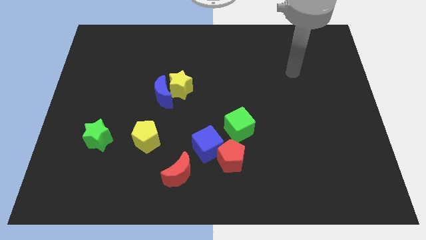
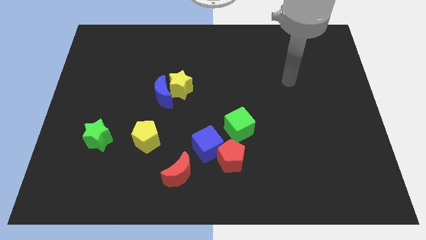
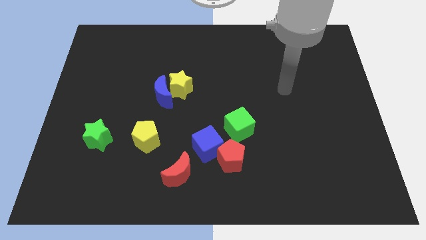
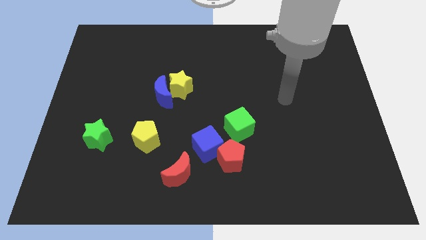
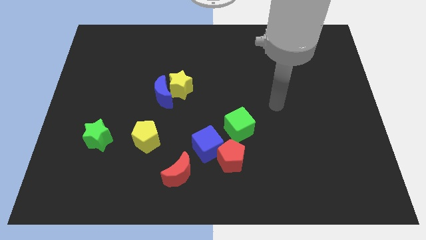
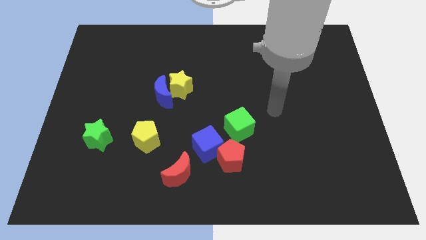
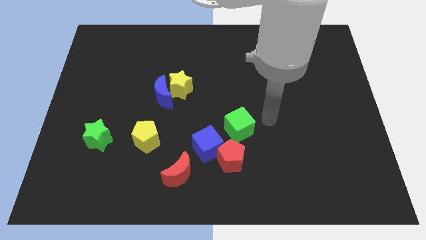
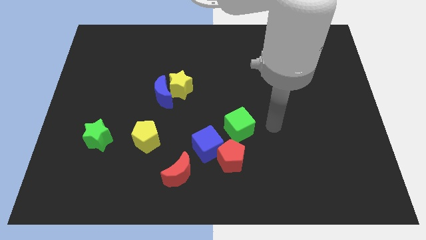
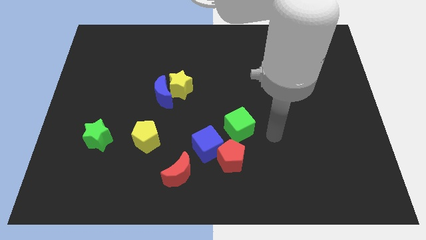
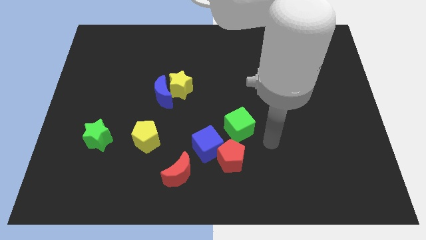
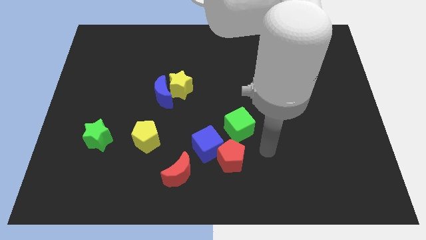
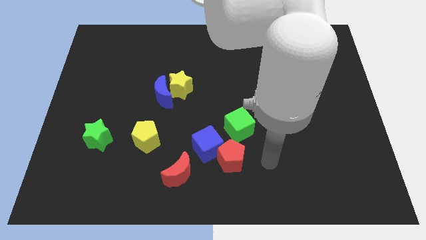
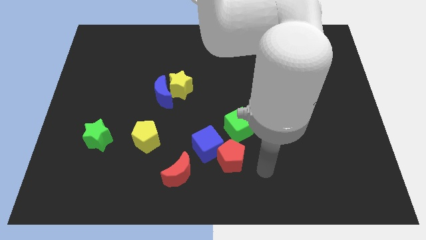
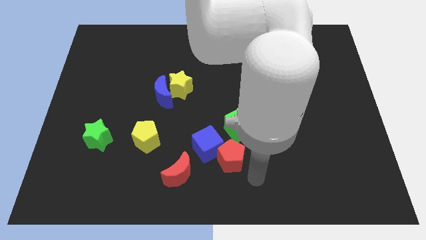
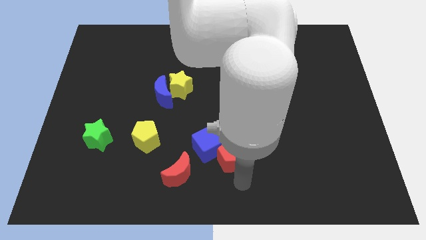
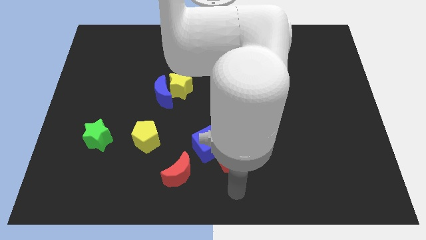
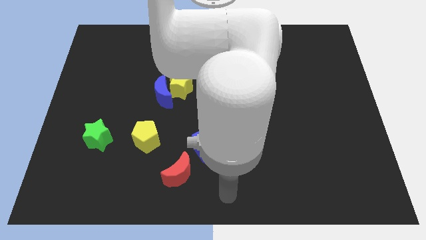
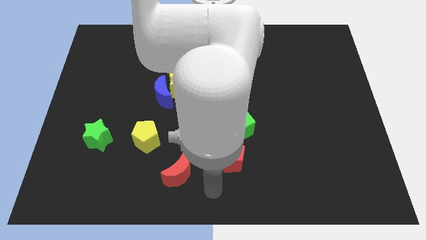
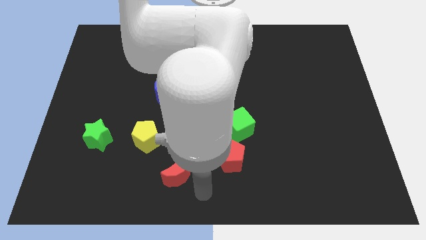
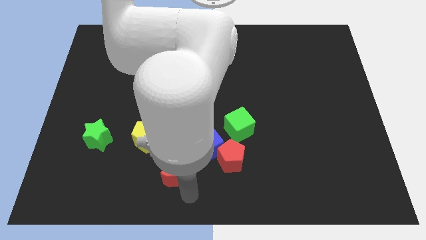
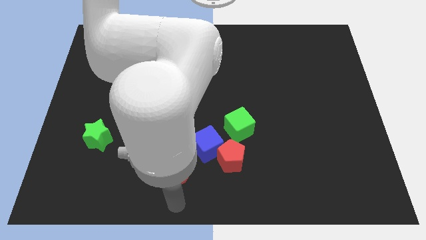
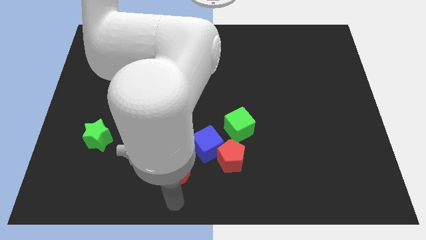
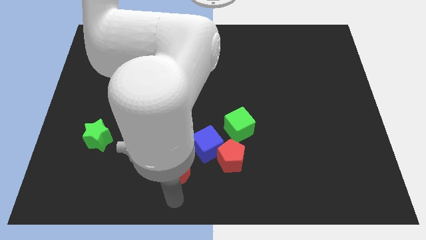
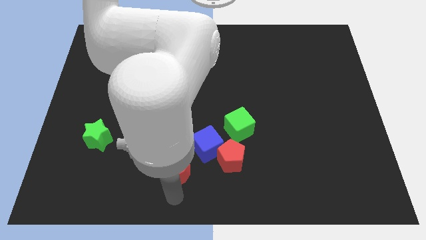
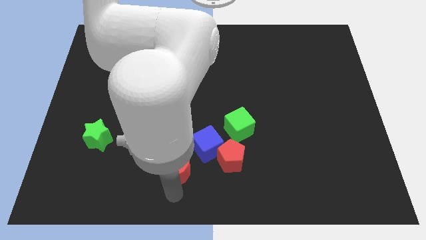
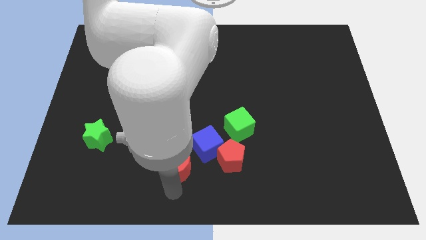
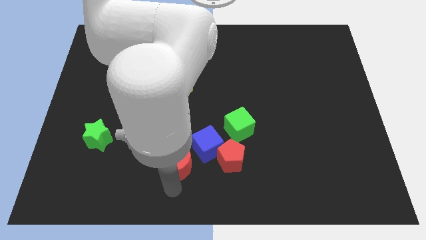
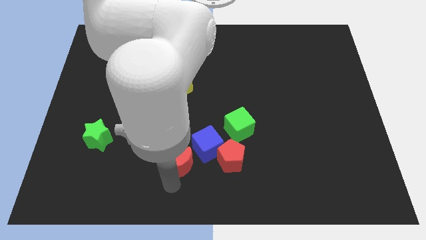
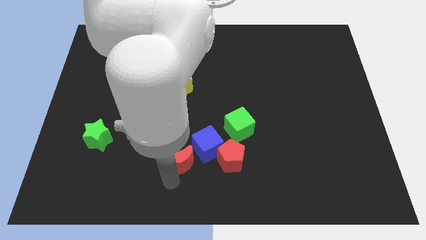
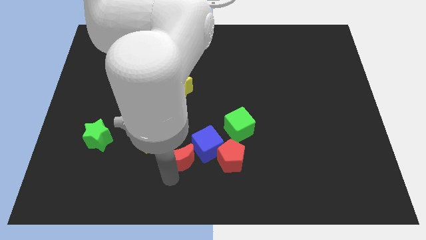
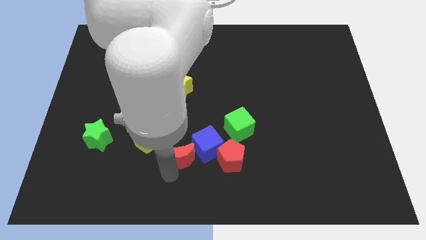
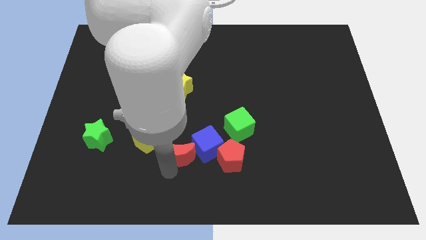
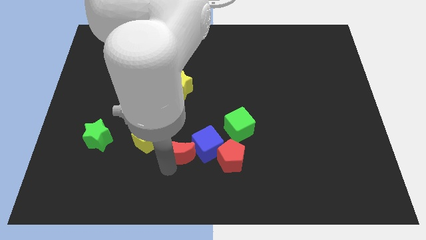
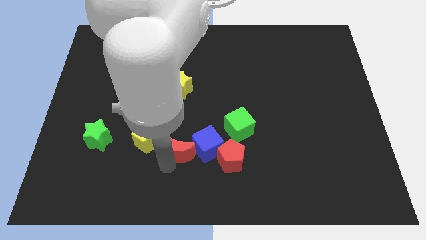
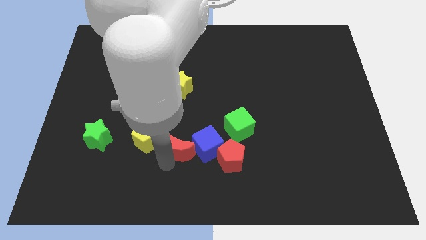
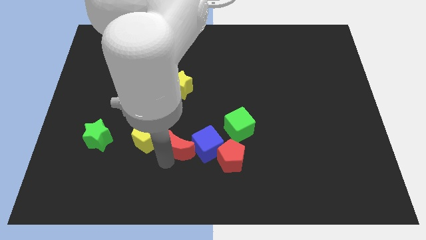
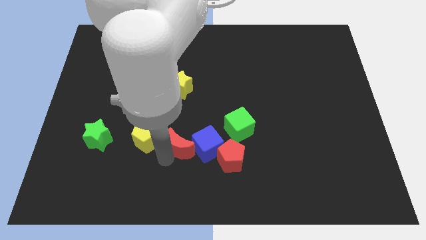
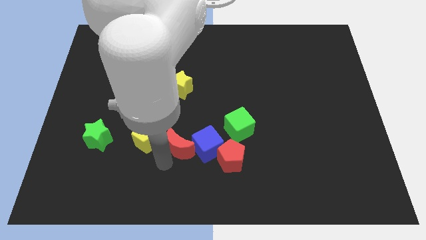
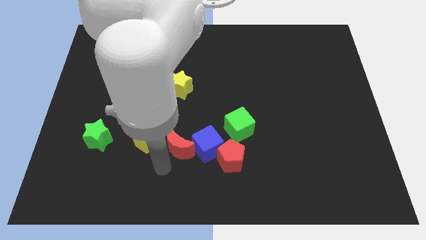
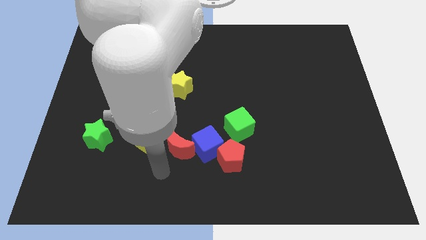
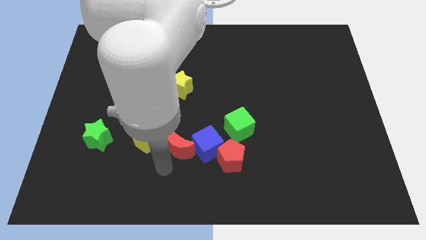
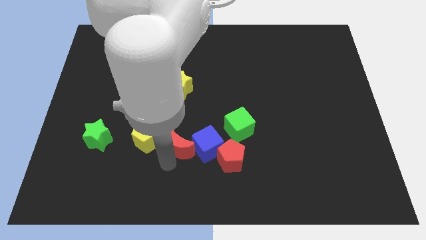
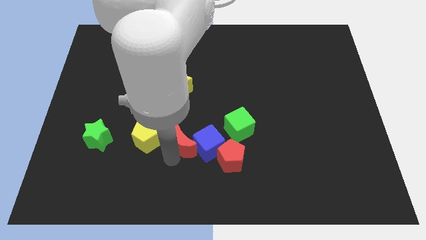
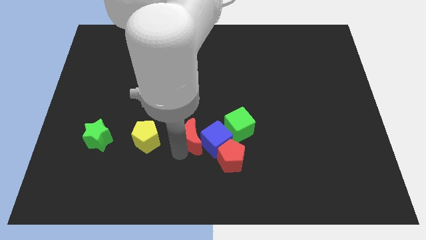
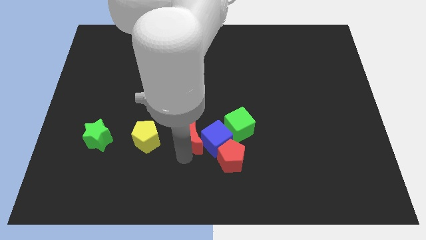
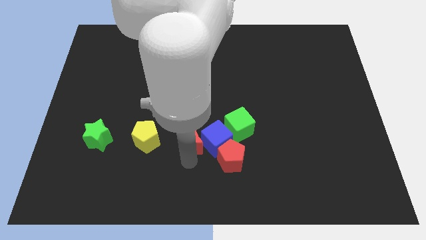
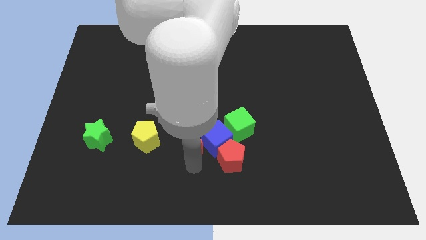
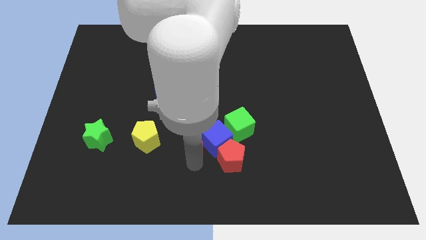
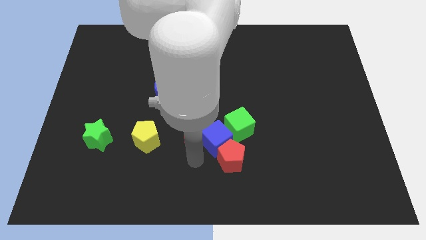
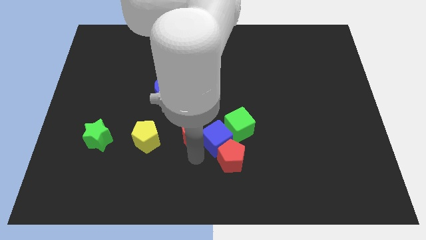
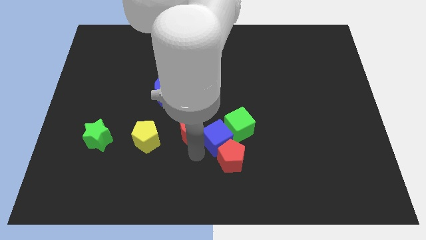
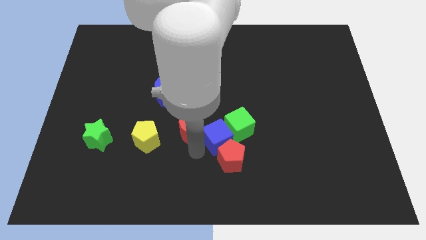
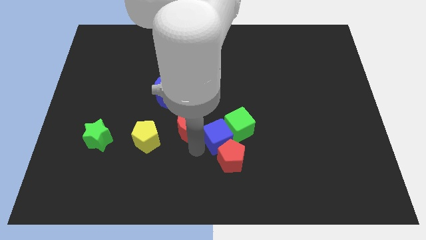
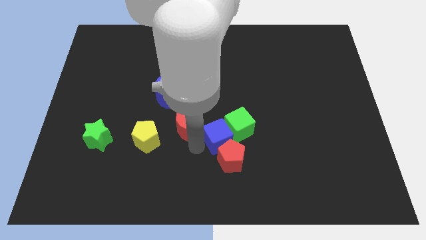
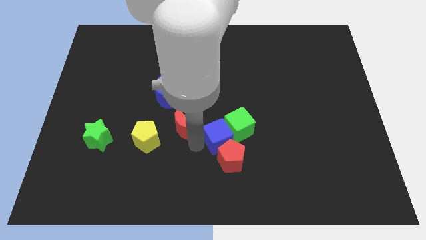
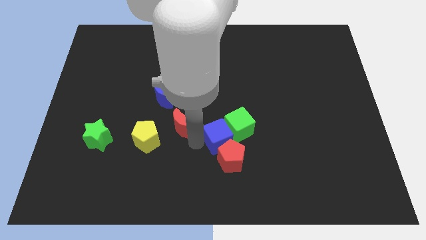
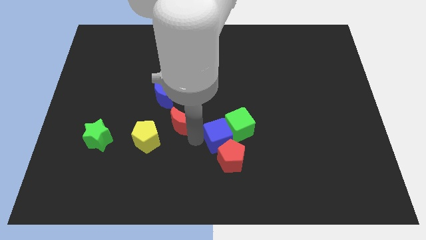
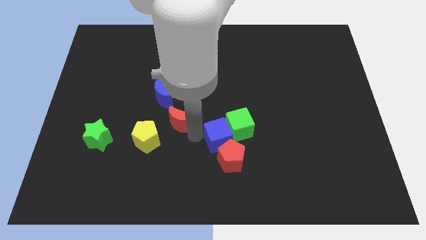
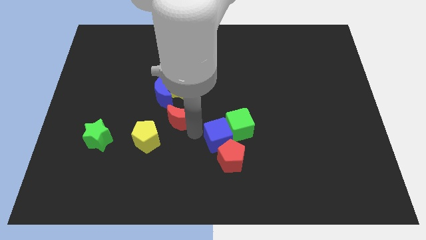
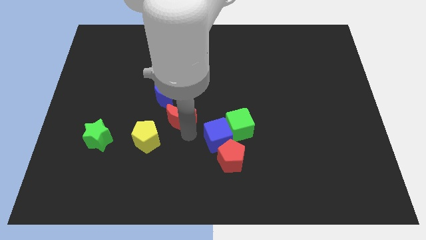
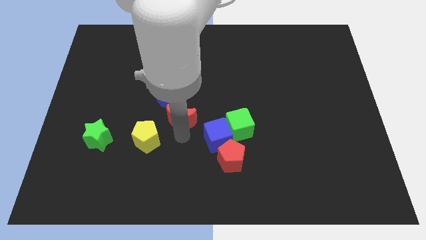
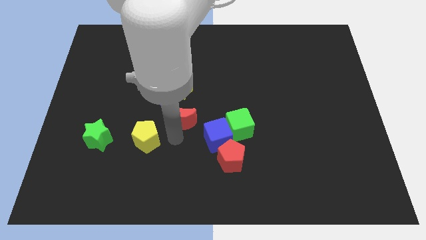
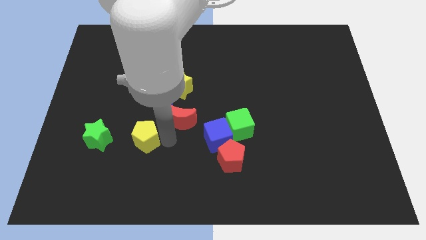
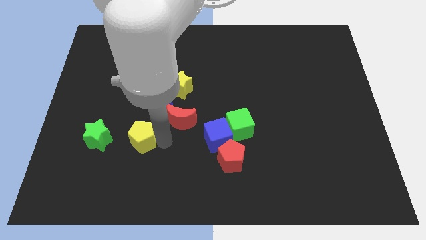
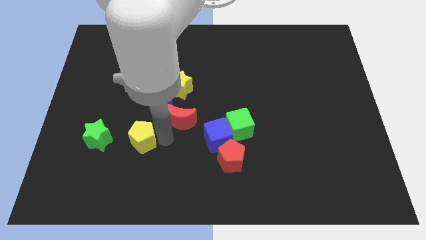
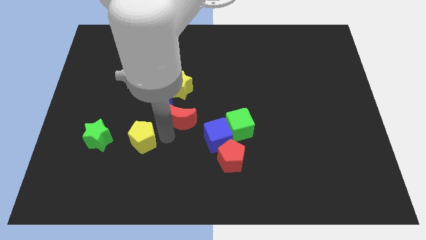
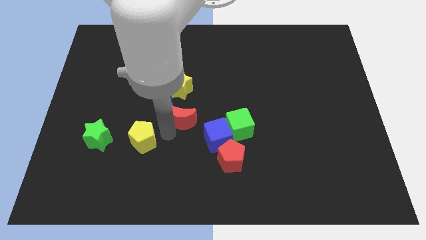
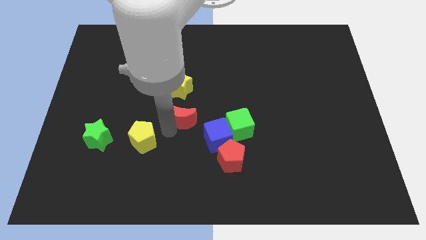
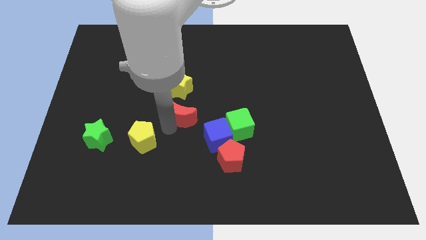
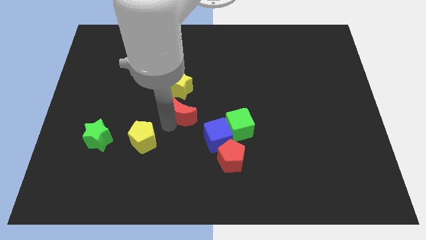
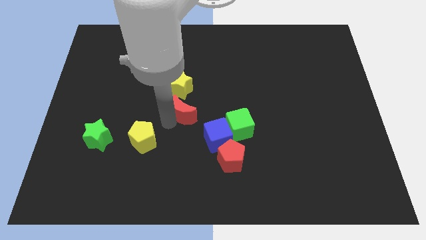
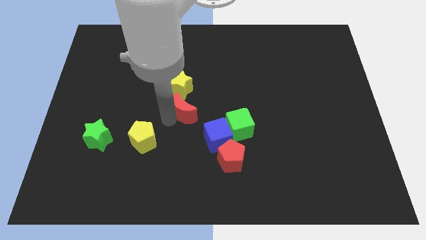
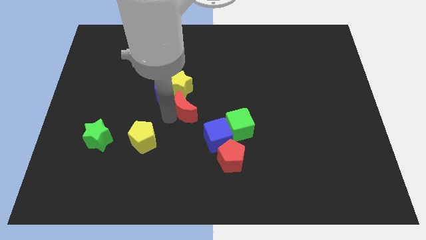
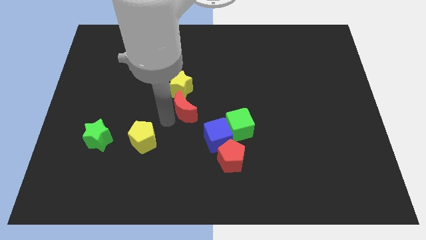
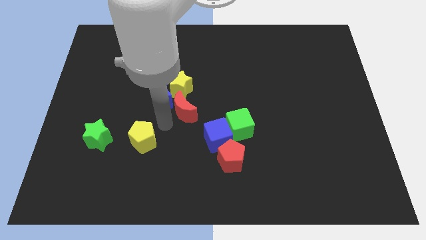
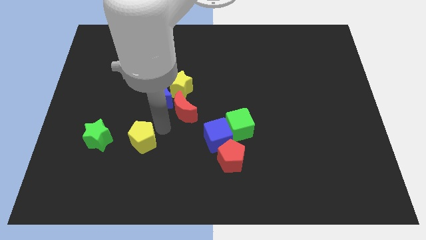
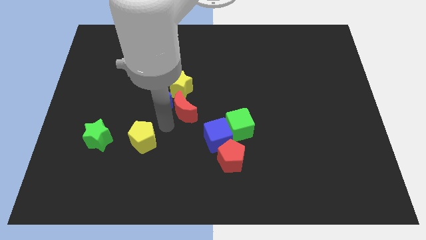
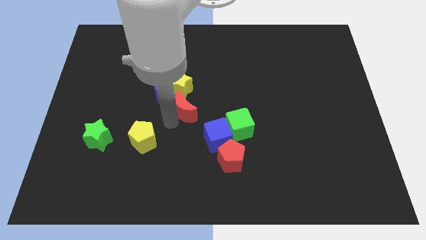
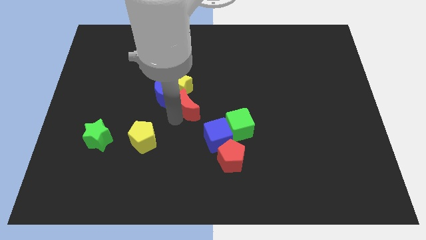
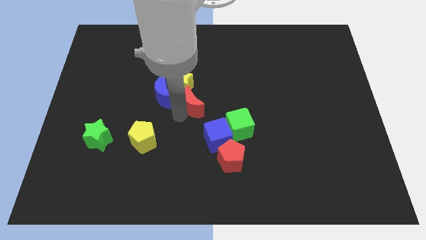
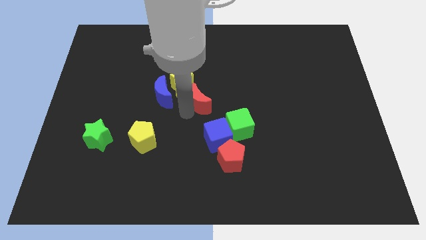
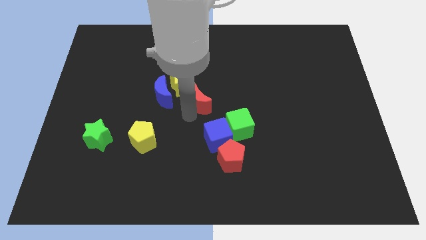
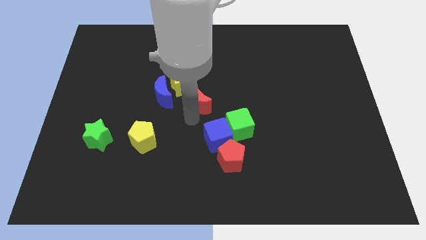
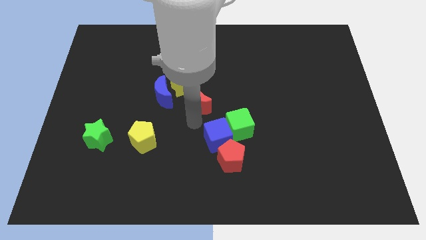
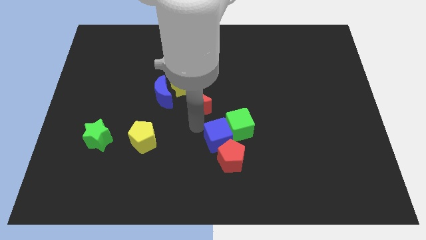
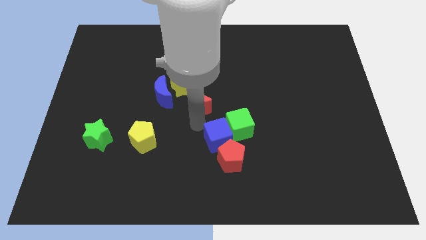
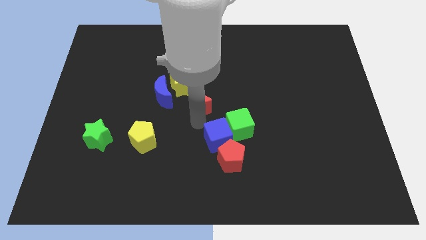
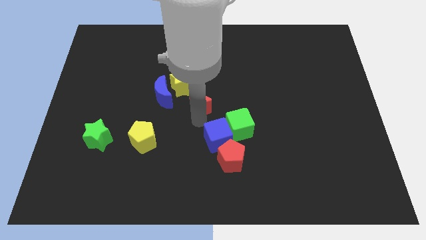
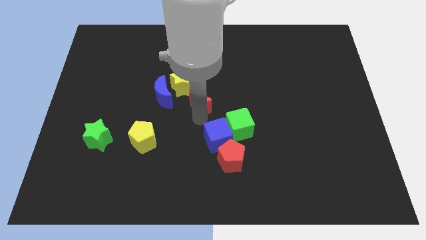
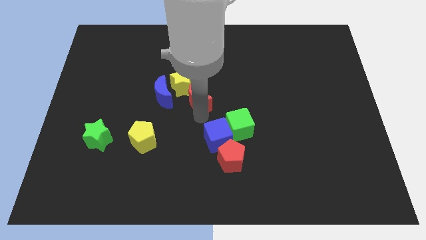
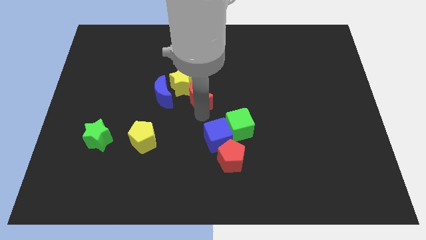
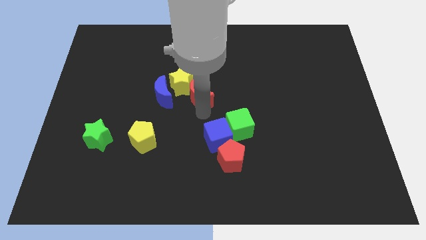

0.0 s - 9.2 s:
push the red moon up
